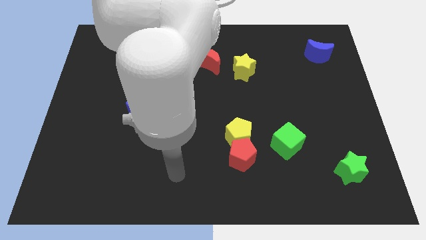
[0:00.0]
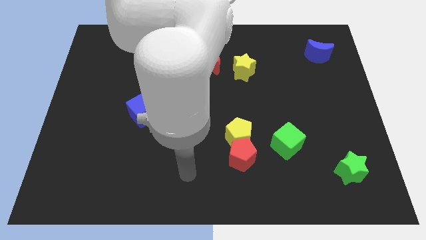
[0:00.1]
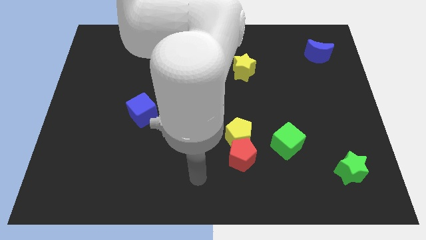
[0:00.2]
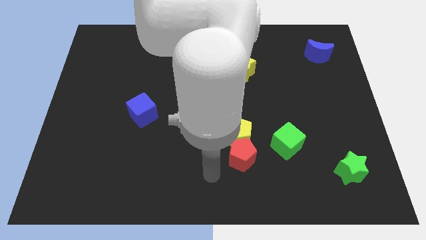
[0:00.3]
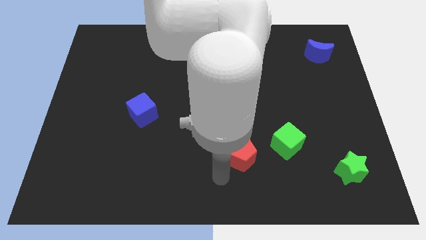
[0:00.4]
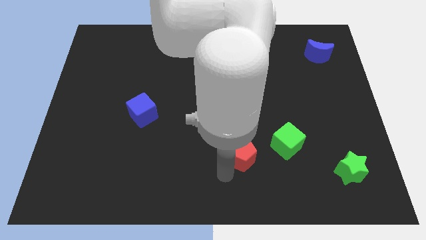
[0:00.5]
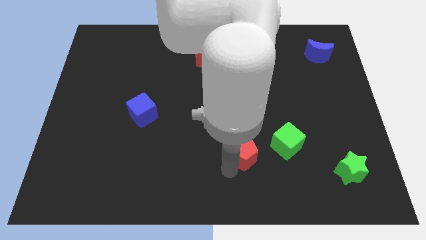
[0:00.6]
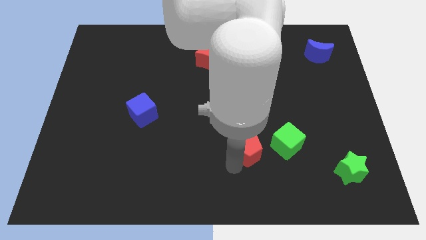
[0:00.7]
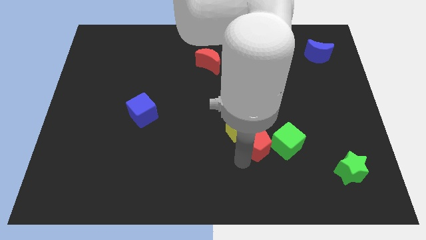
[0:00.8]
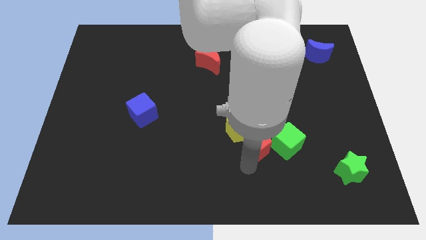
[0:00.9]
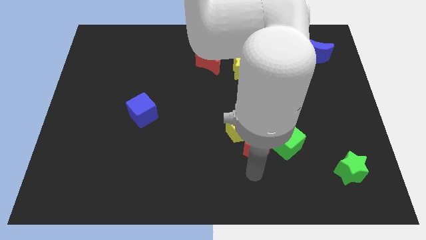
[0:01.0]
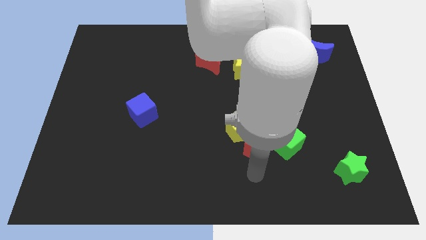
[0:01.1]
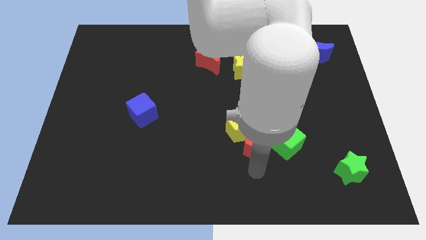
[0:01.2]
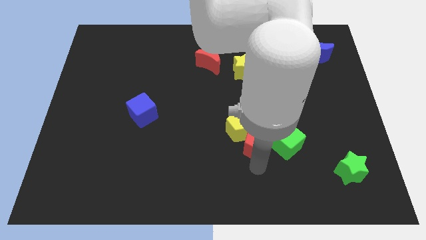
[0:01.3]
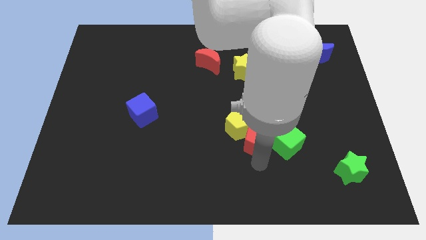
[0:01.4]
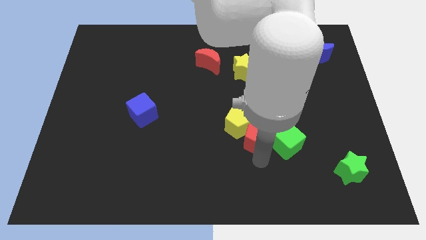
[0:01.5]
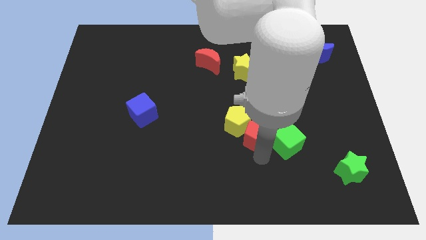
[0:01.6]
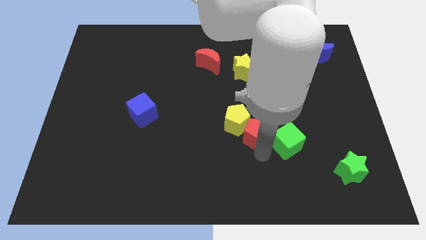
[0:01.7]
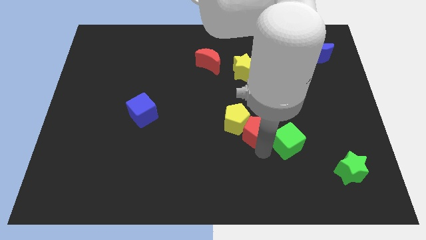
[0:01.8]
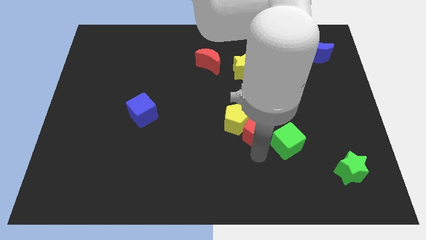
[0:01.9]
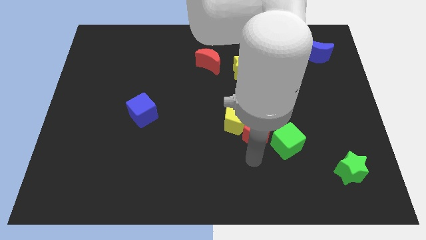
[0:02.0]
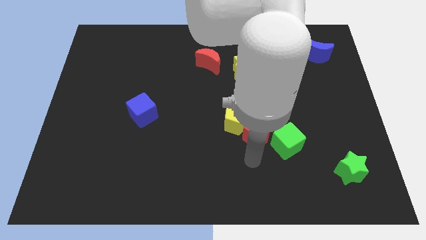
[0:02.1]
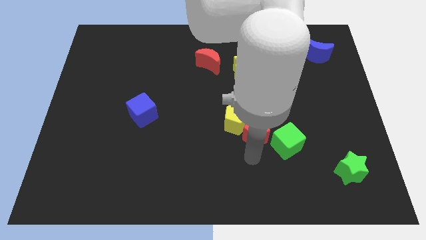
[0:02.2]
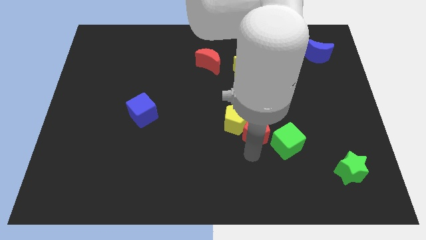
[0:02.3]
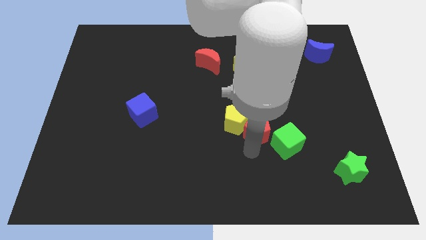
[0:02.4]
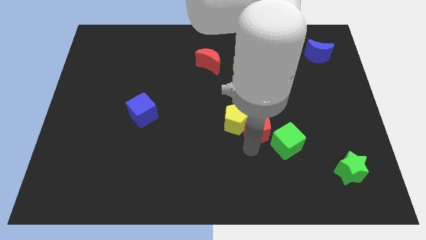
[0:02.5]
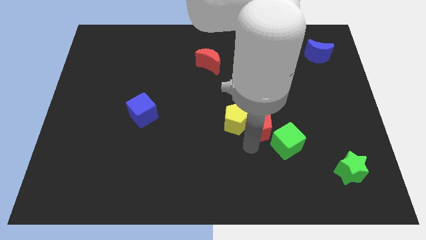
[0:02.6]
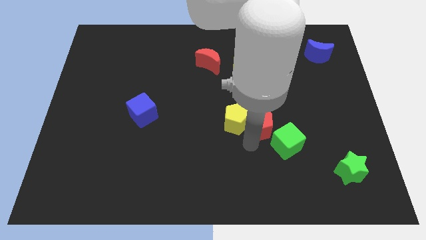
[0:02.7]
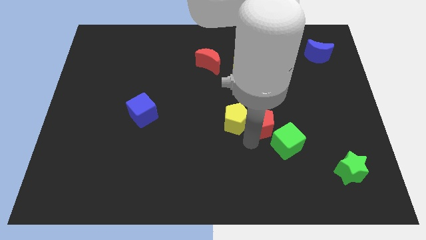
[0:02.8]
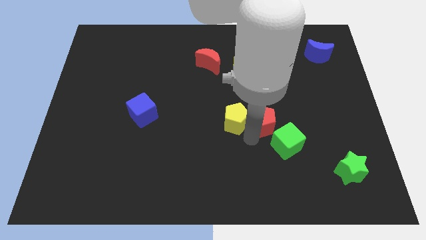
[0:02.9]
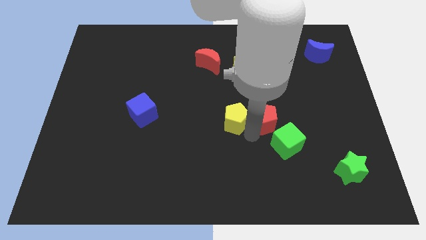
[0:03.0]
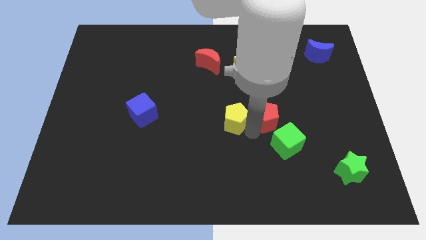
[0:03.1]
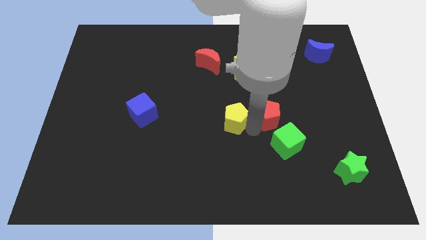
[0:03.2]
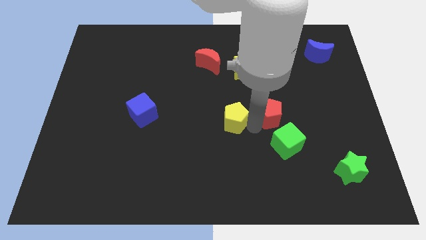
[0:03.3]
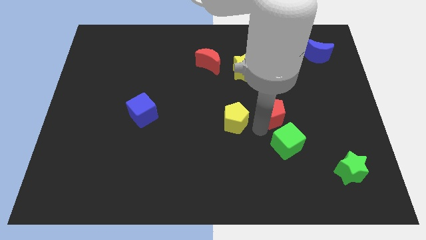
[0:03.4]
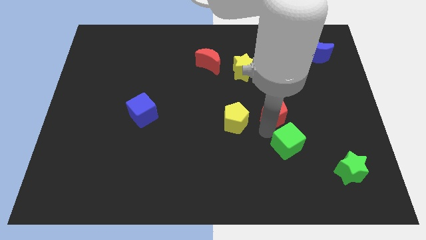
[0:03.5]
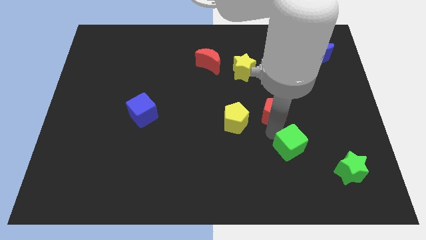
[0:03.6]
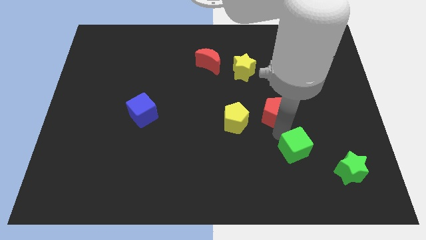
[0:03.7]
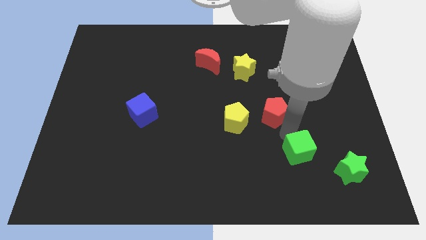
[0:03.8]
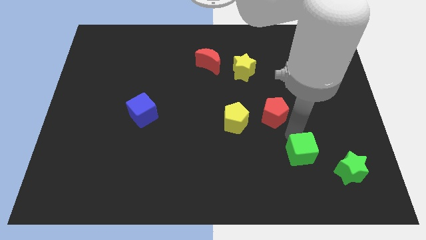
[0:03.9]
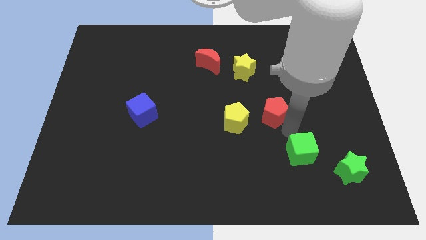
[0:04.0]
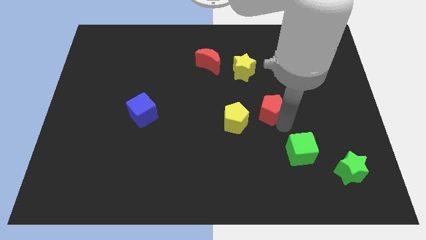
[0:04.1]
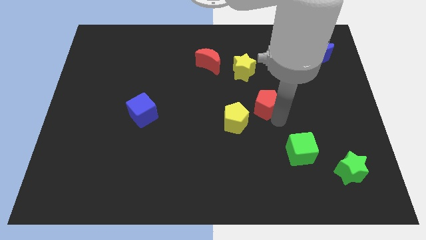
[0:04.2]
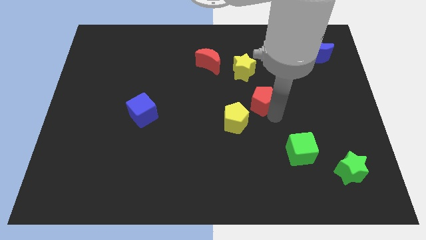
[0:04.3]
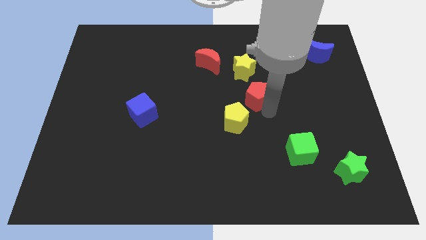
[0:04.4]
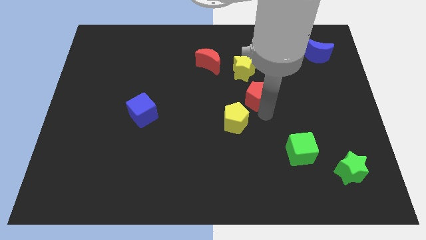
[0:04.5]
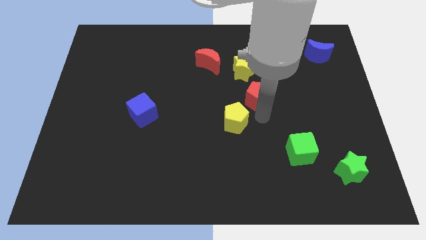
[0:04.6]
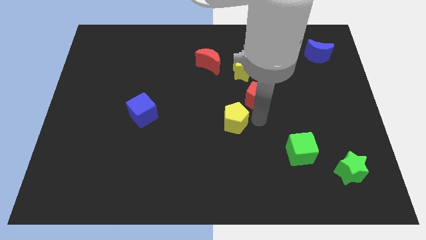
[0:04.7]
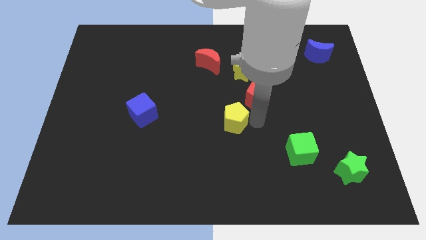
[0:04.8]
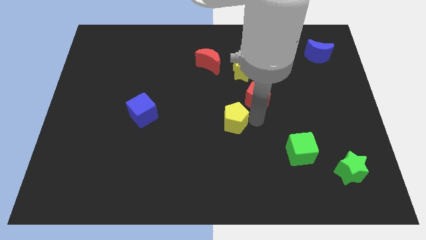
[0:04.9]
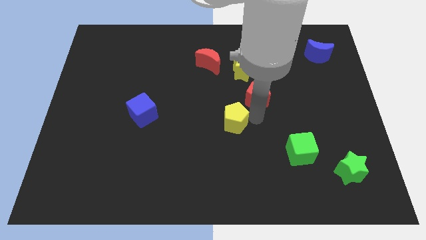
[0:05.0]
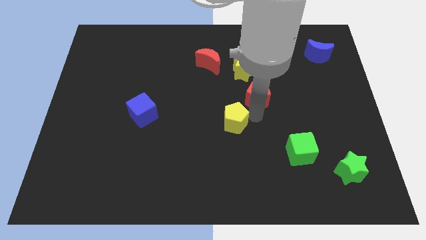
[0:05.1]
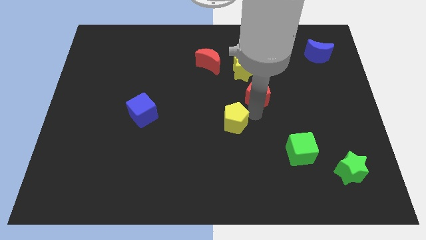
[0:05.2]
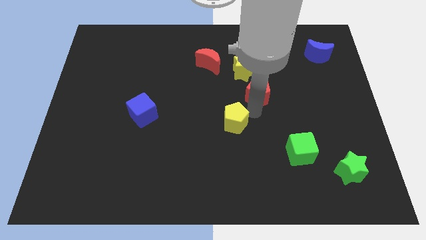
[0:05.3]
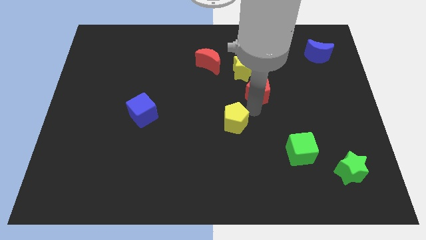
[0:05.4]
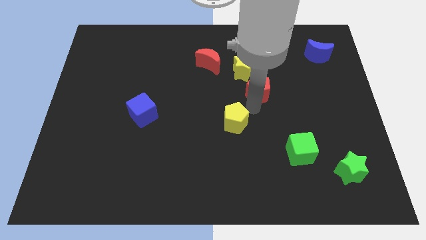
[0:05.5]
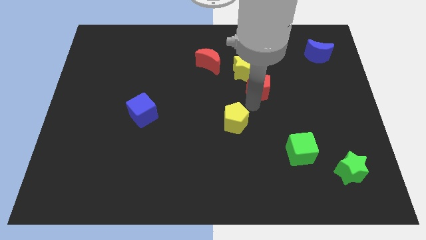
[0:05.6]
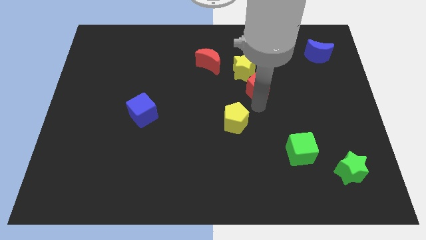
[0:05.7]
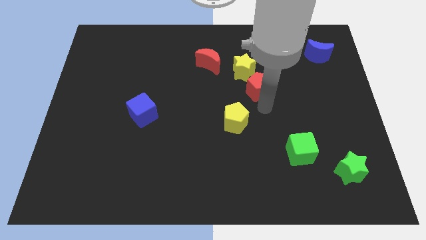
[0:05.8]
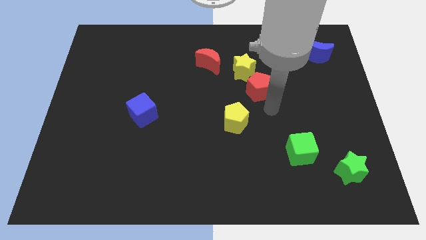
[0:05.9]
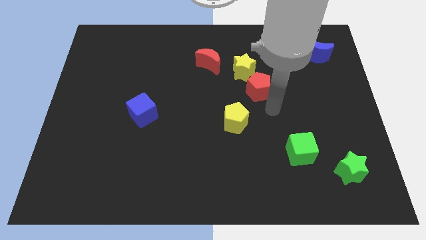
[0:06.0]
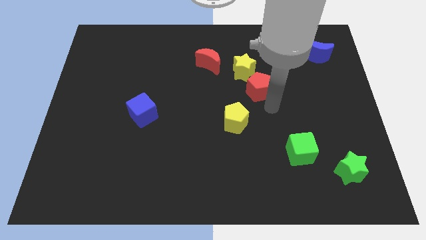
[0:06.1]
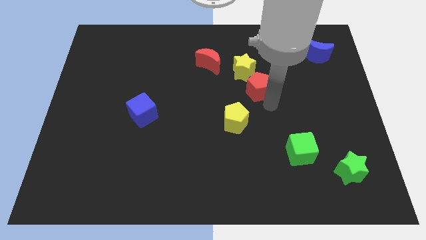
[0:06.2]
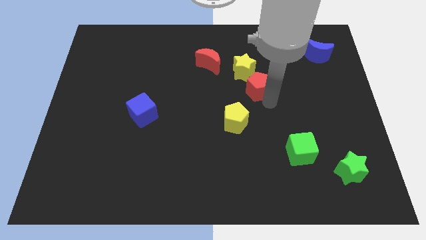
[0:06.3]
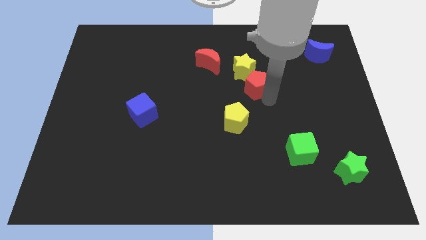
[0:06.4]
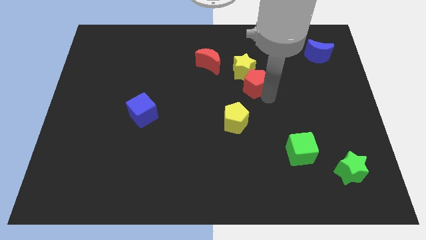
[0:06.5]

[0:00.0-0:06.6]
push the red pentagon towards the yellow star

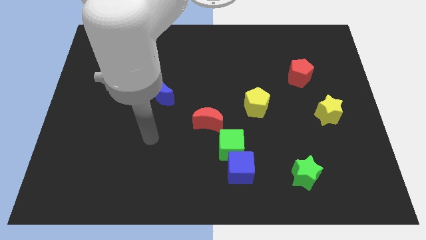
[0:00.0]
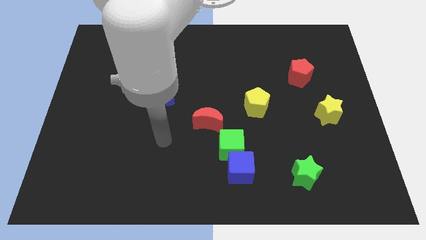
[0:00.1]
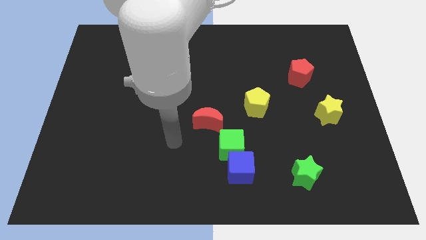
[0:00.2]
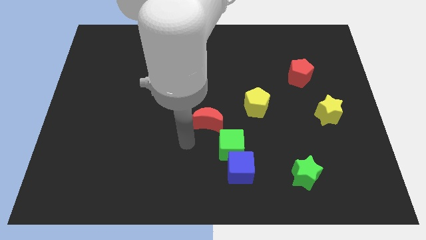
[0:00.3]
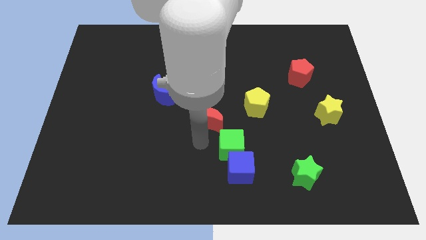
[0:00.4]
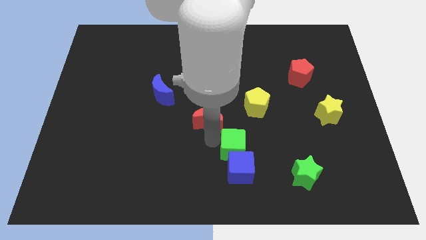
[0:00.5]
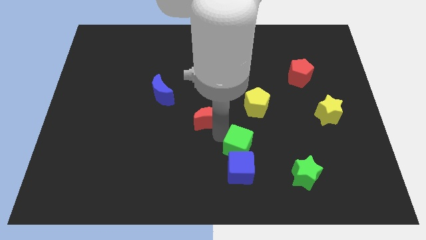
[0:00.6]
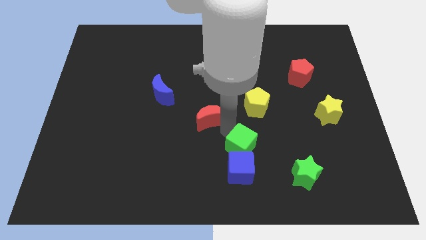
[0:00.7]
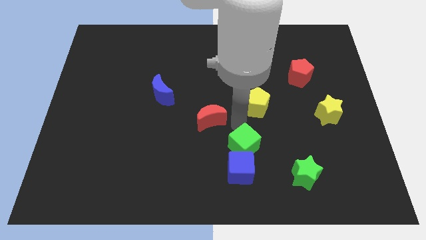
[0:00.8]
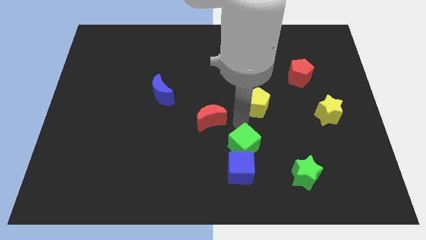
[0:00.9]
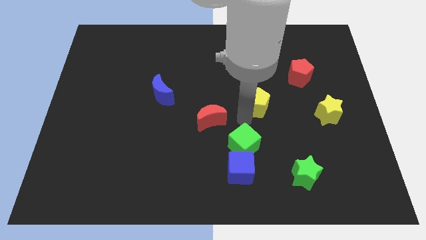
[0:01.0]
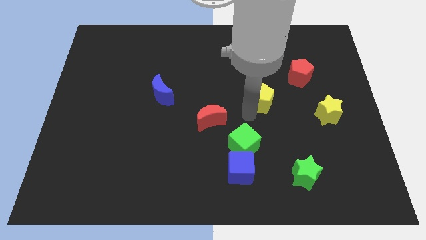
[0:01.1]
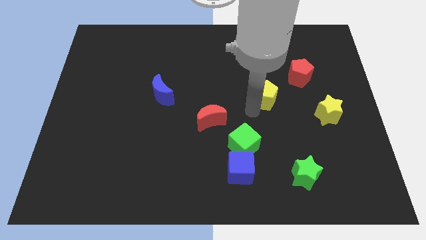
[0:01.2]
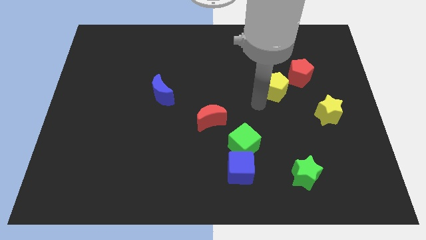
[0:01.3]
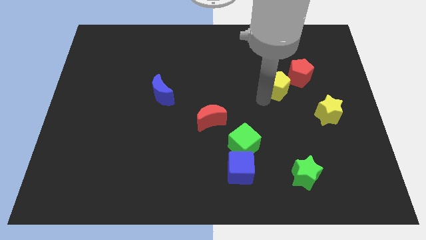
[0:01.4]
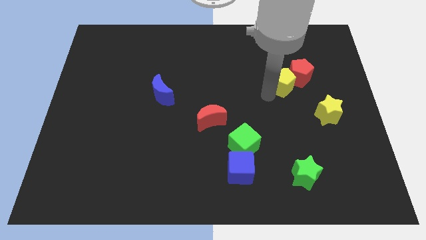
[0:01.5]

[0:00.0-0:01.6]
slide the yellow pentagon next to the red pentagon
